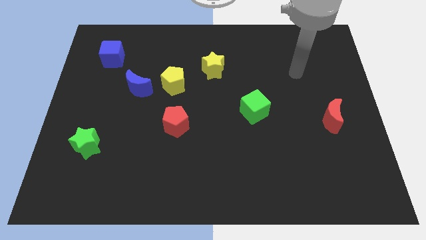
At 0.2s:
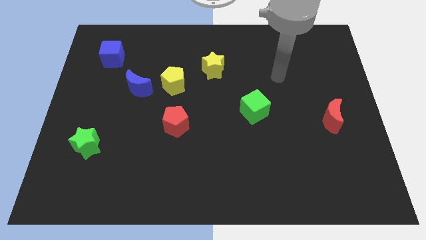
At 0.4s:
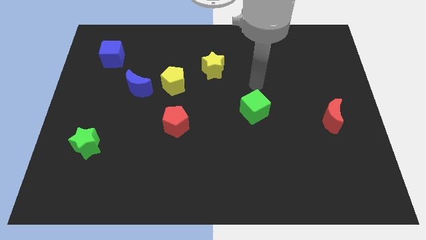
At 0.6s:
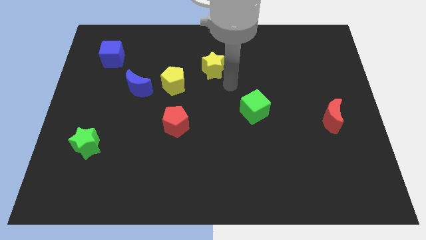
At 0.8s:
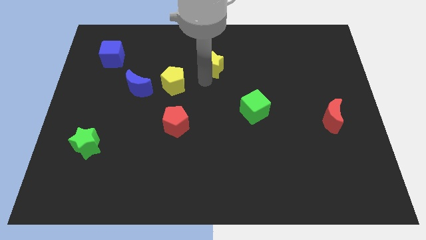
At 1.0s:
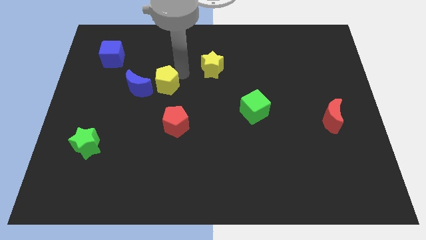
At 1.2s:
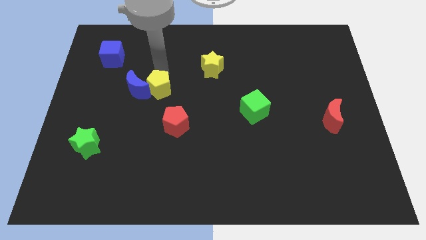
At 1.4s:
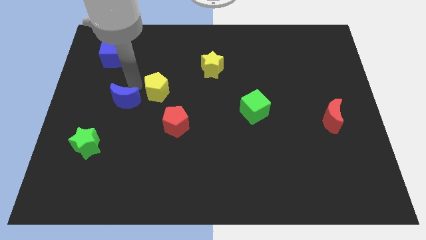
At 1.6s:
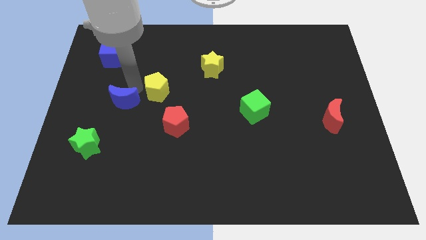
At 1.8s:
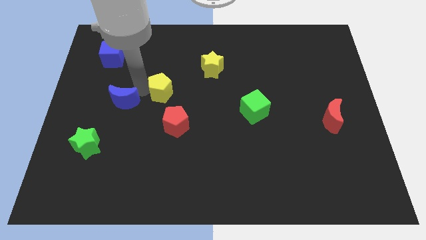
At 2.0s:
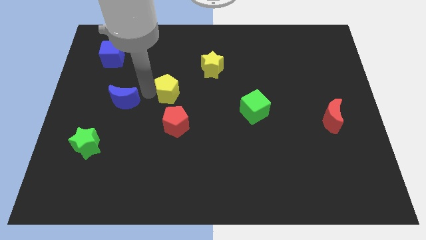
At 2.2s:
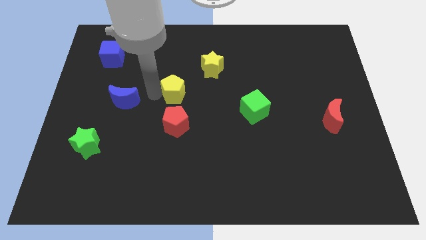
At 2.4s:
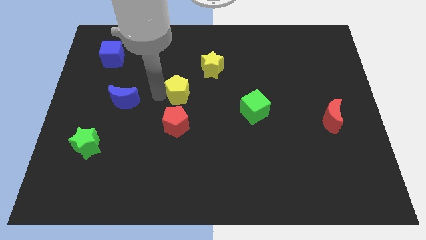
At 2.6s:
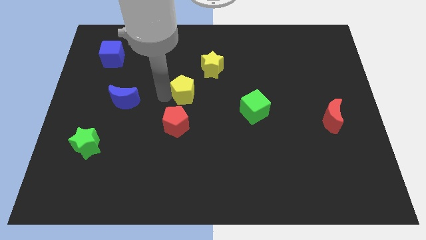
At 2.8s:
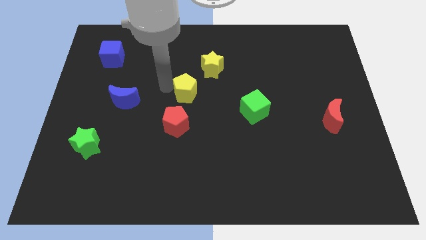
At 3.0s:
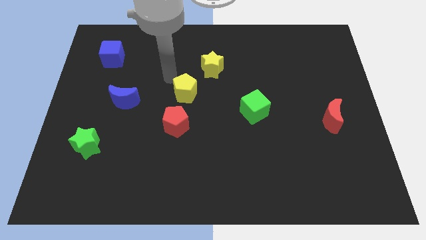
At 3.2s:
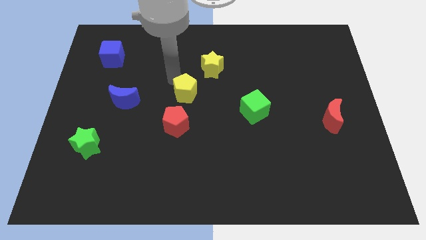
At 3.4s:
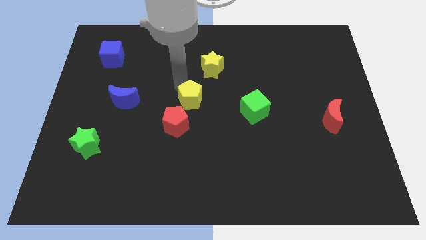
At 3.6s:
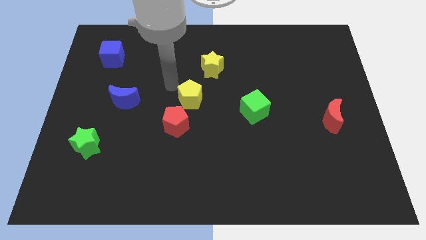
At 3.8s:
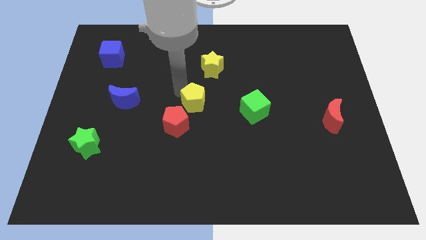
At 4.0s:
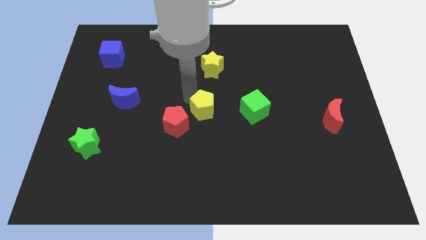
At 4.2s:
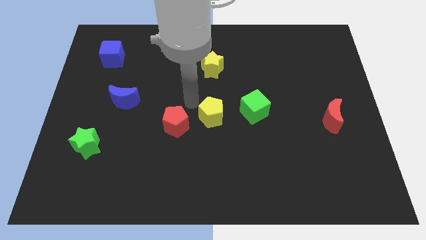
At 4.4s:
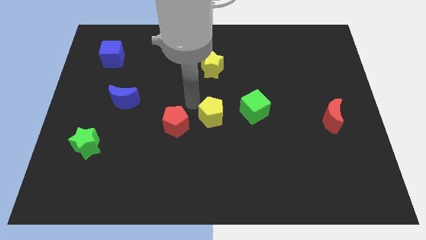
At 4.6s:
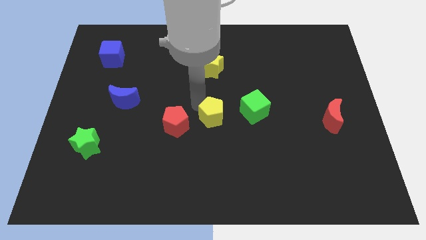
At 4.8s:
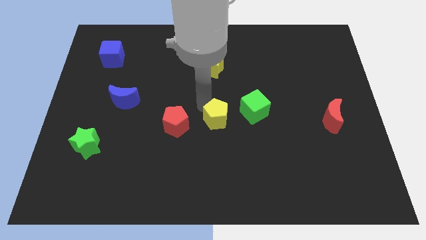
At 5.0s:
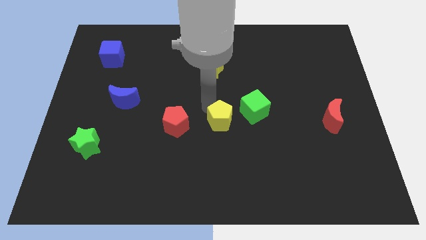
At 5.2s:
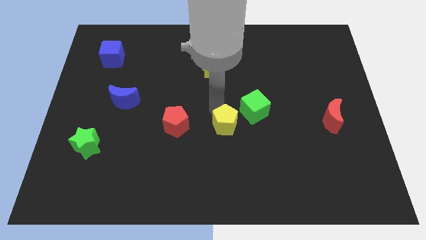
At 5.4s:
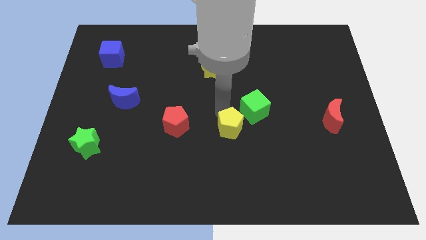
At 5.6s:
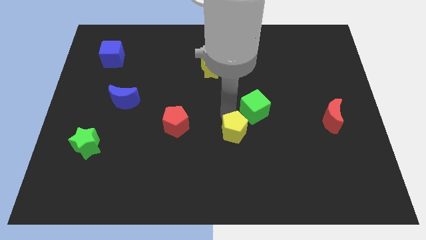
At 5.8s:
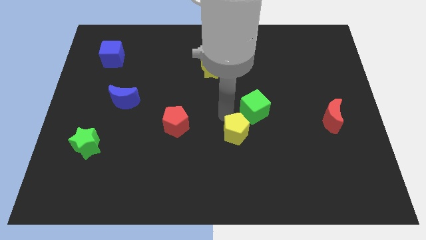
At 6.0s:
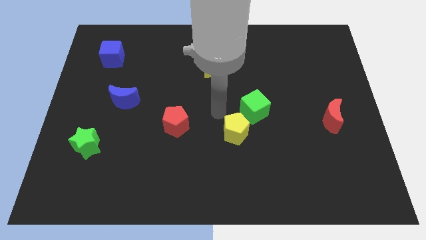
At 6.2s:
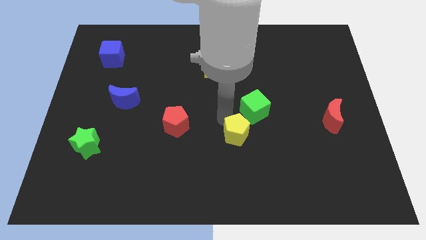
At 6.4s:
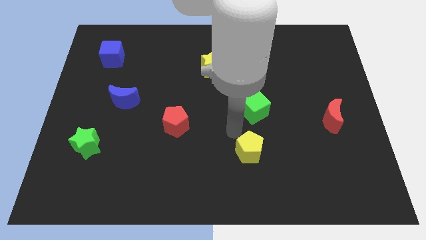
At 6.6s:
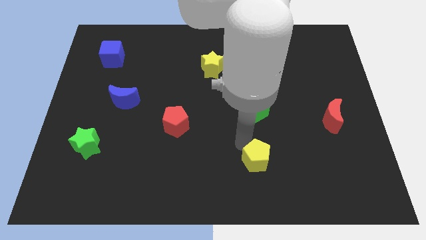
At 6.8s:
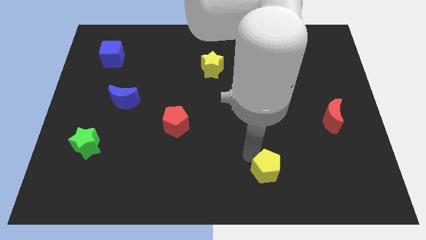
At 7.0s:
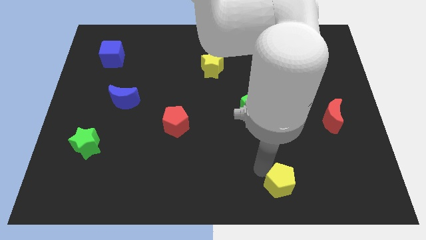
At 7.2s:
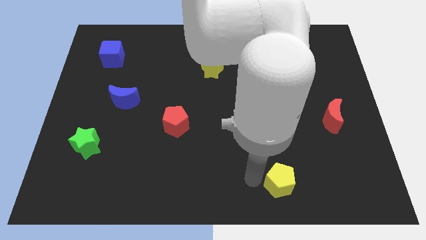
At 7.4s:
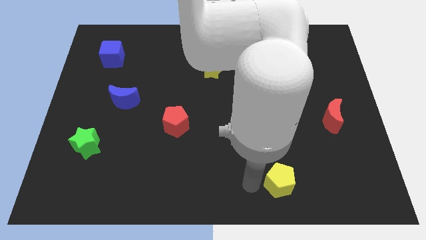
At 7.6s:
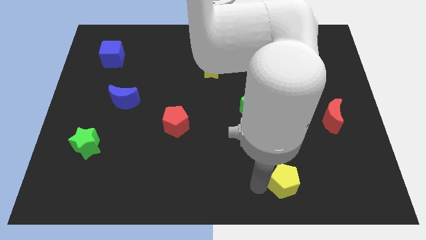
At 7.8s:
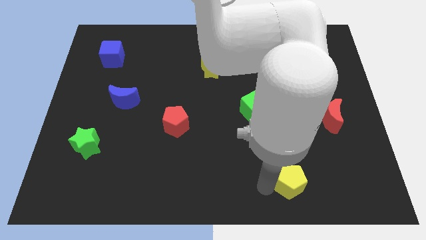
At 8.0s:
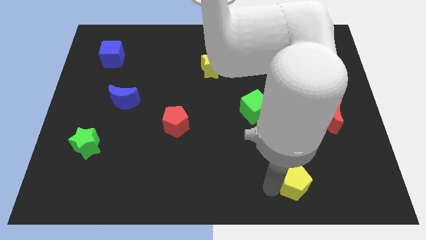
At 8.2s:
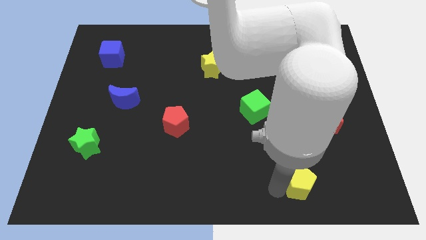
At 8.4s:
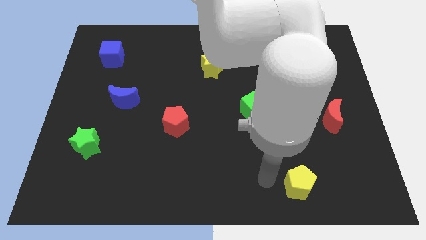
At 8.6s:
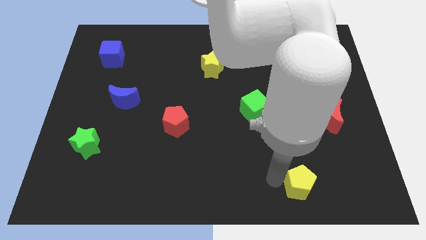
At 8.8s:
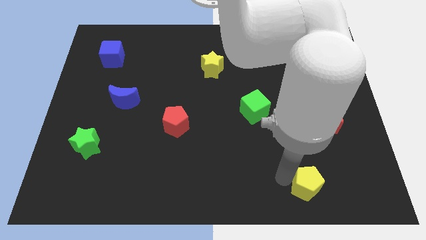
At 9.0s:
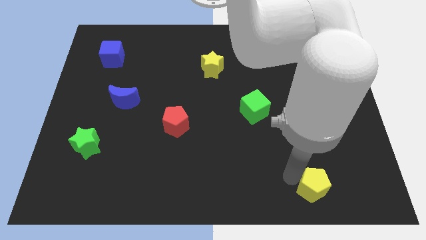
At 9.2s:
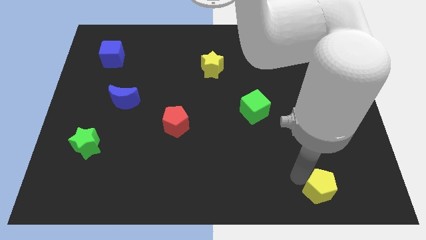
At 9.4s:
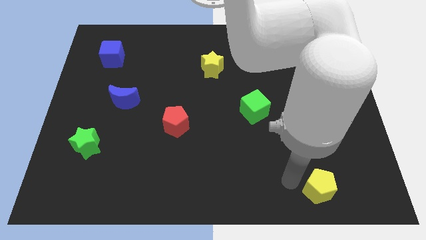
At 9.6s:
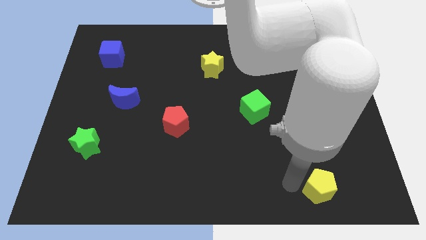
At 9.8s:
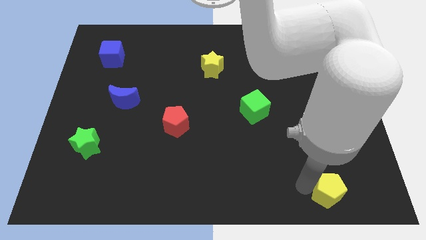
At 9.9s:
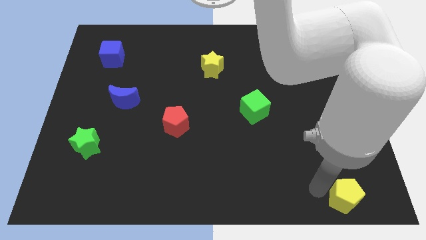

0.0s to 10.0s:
move the yellow pentagon to the lower right corner

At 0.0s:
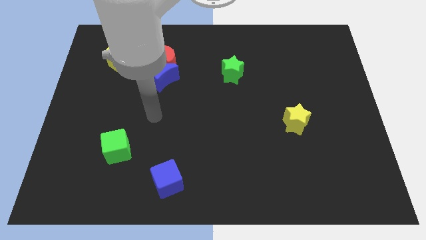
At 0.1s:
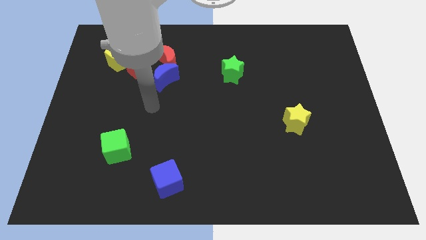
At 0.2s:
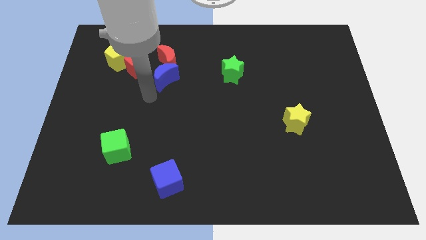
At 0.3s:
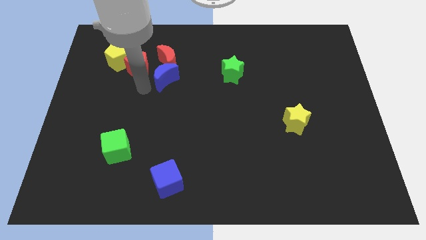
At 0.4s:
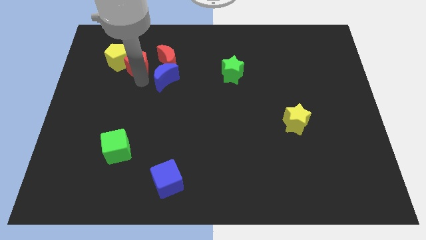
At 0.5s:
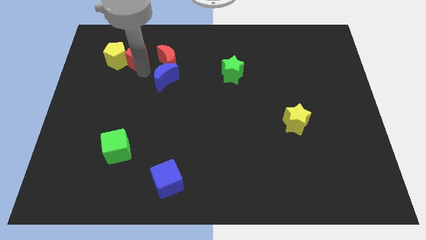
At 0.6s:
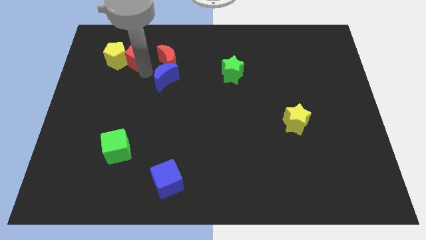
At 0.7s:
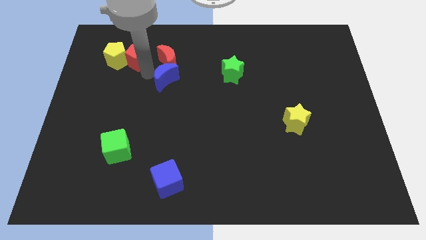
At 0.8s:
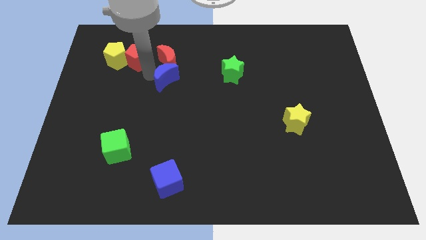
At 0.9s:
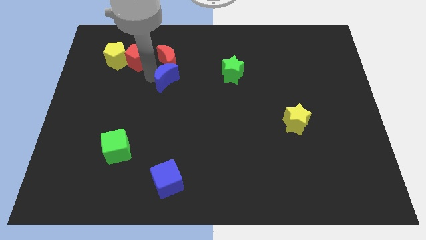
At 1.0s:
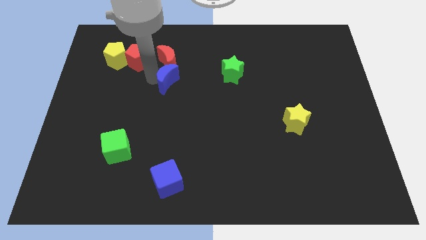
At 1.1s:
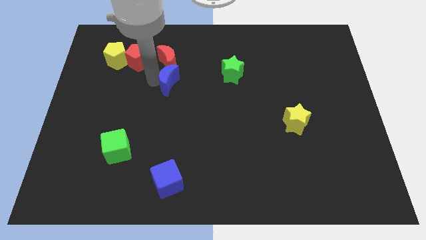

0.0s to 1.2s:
put the blue moon to the center
